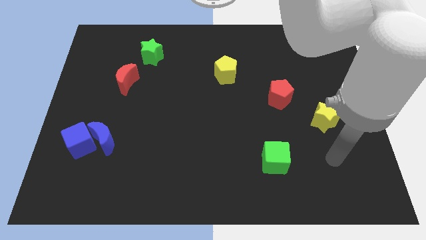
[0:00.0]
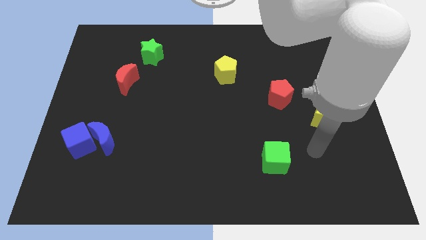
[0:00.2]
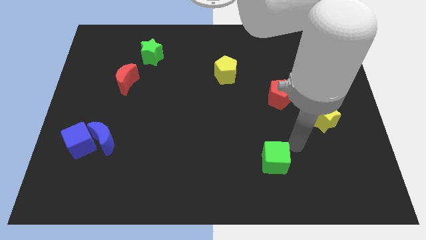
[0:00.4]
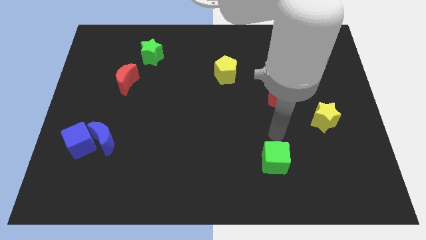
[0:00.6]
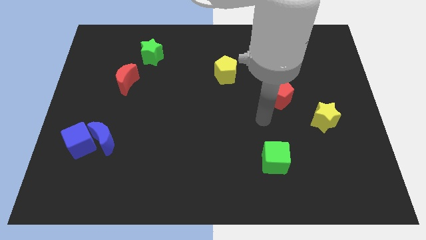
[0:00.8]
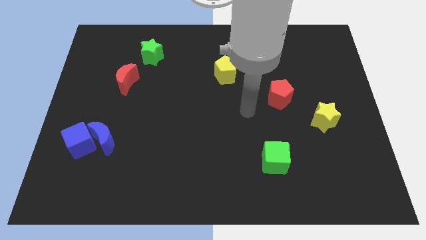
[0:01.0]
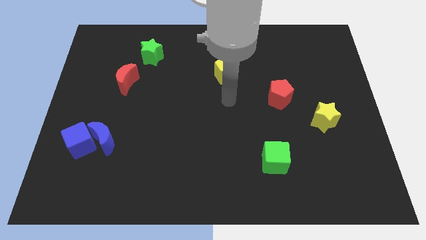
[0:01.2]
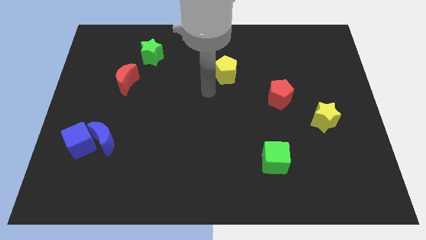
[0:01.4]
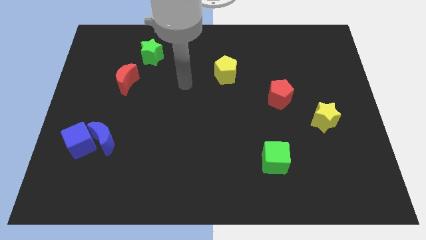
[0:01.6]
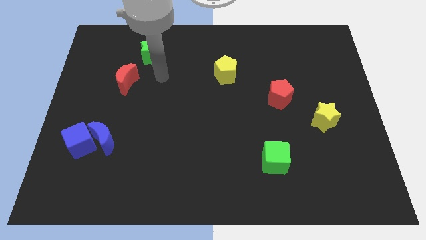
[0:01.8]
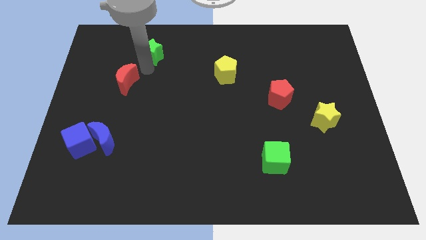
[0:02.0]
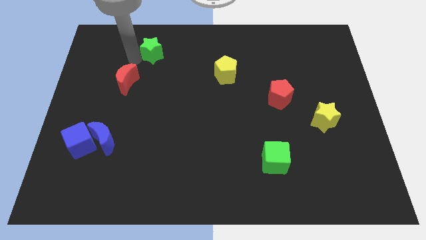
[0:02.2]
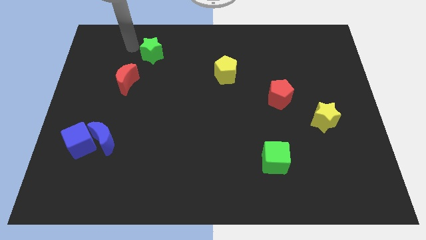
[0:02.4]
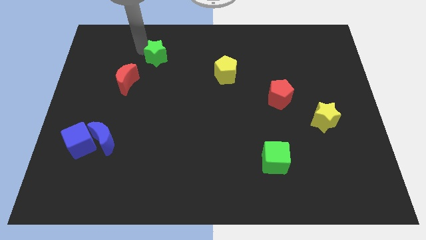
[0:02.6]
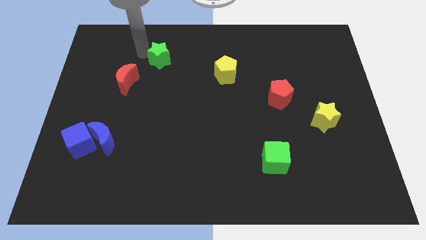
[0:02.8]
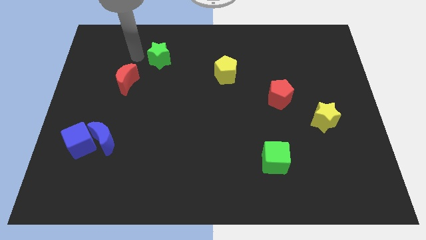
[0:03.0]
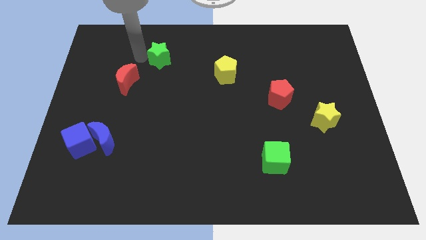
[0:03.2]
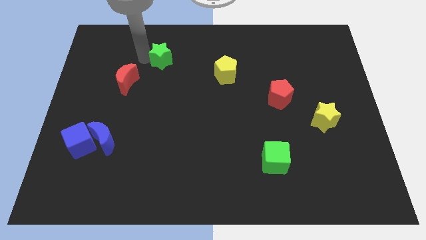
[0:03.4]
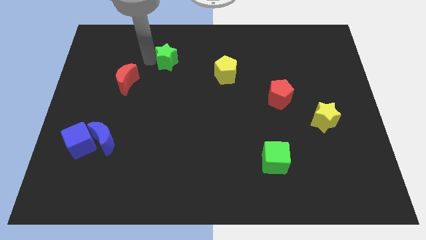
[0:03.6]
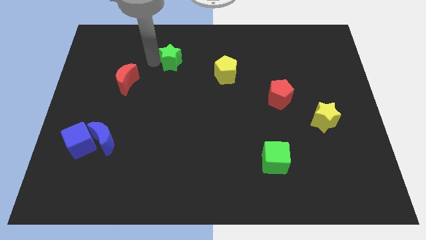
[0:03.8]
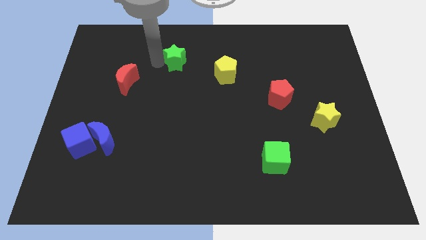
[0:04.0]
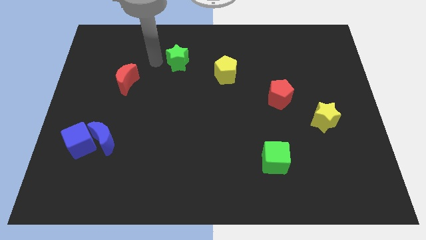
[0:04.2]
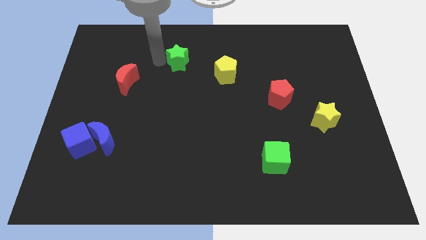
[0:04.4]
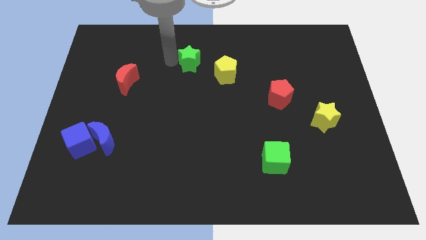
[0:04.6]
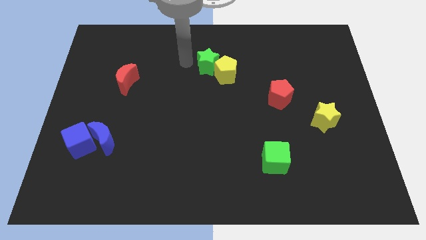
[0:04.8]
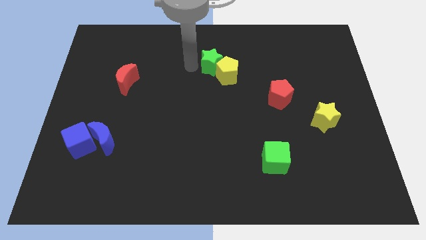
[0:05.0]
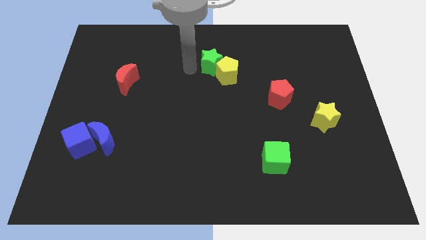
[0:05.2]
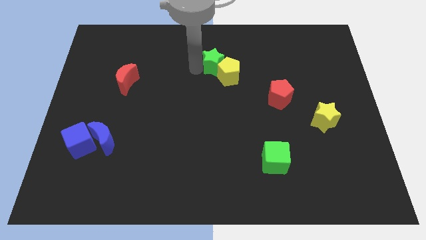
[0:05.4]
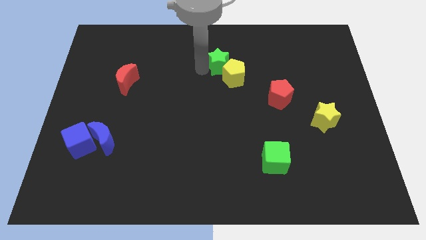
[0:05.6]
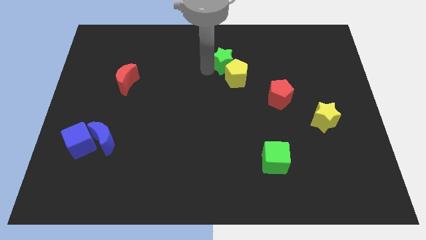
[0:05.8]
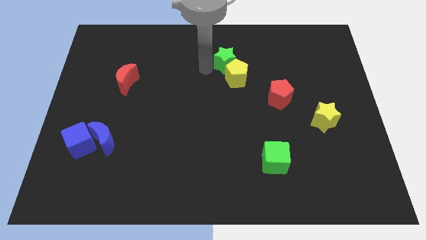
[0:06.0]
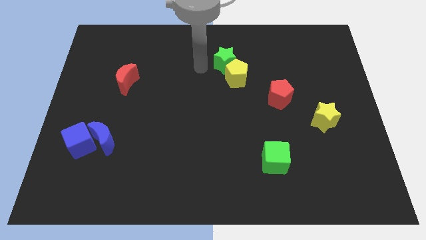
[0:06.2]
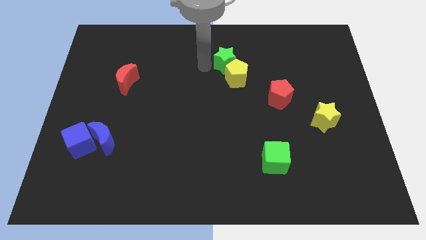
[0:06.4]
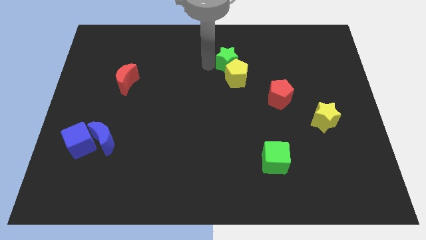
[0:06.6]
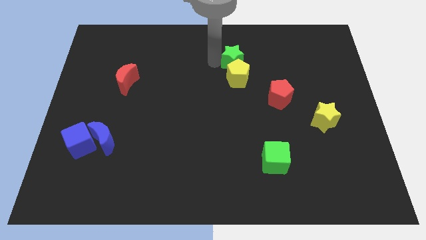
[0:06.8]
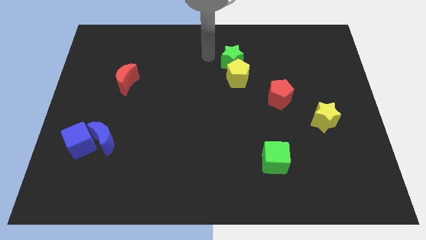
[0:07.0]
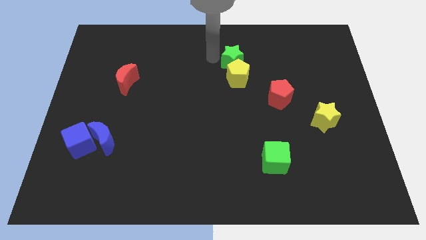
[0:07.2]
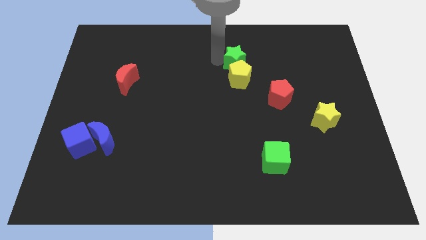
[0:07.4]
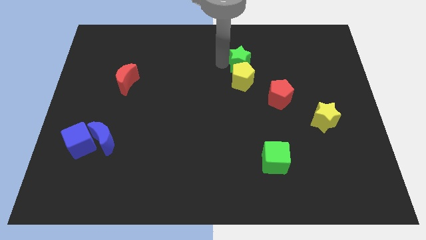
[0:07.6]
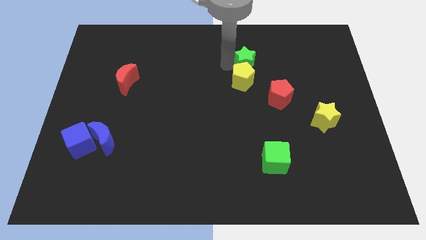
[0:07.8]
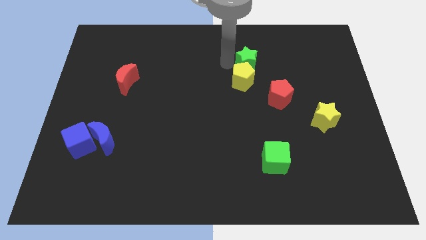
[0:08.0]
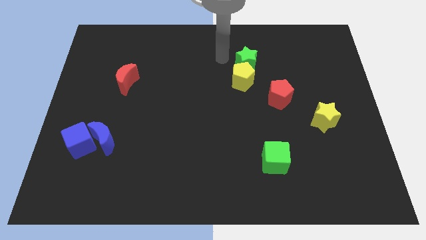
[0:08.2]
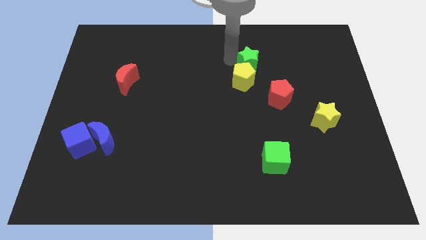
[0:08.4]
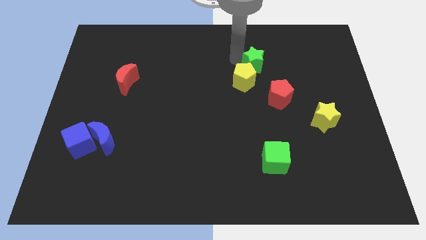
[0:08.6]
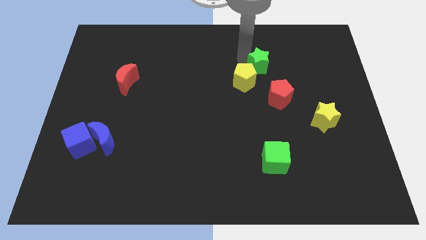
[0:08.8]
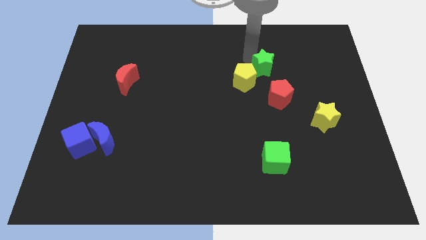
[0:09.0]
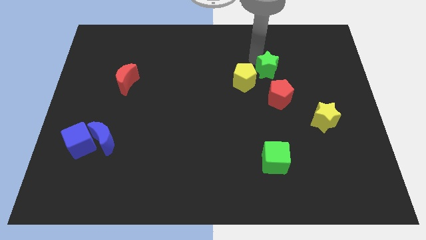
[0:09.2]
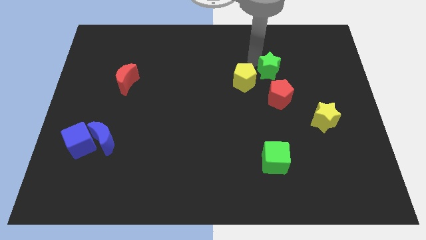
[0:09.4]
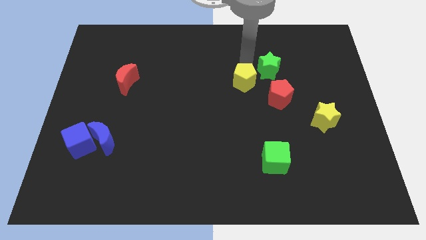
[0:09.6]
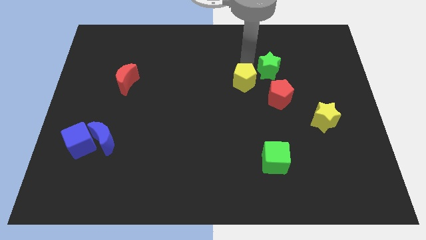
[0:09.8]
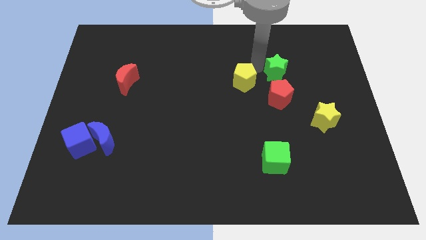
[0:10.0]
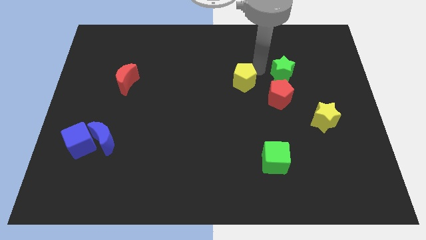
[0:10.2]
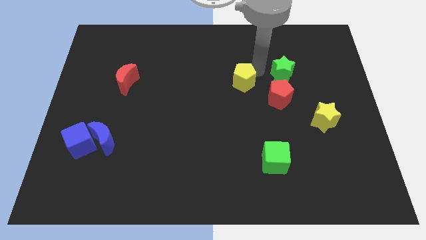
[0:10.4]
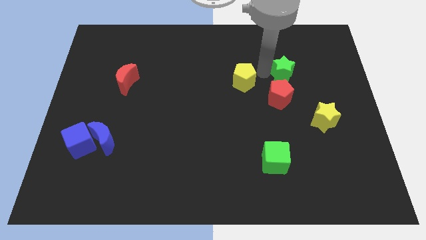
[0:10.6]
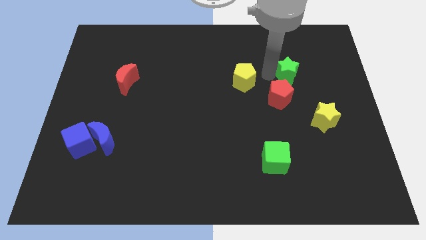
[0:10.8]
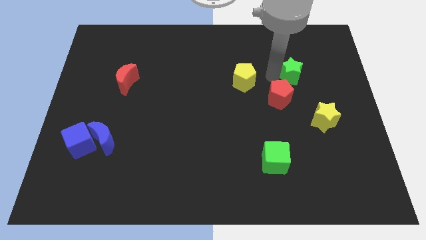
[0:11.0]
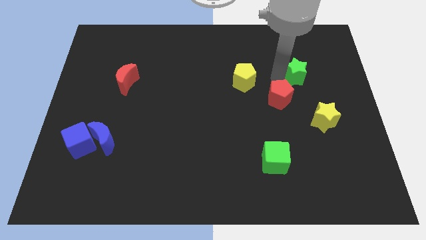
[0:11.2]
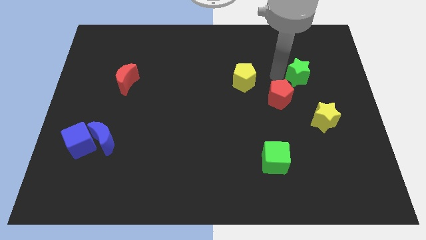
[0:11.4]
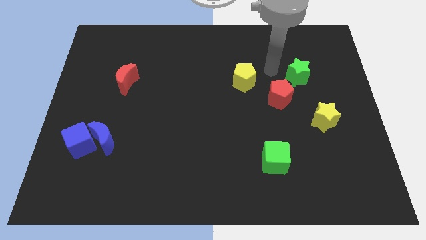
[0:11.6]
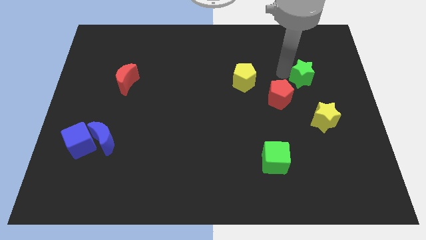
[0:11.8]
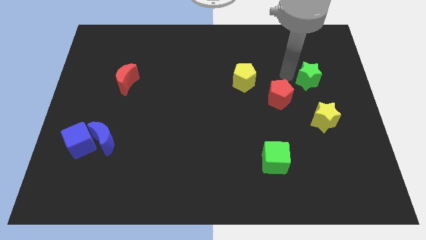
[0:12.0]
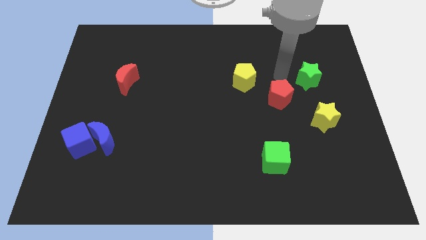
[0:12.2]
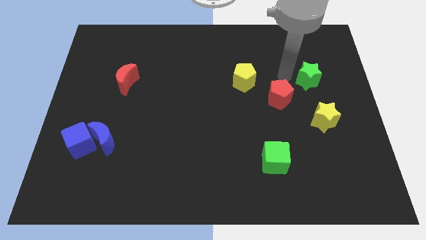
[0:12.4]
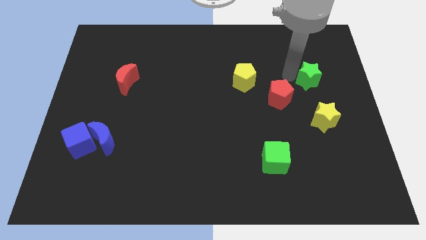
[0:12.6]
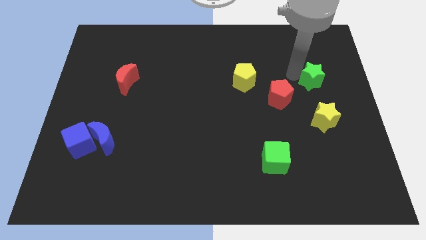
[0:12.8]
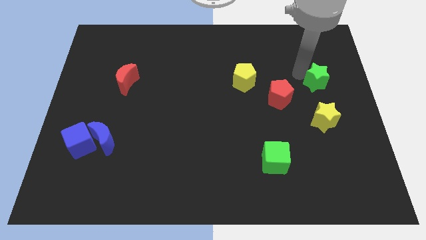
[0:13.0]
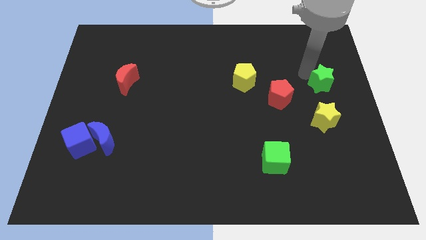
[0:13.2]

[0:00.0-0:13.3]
put the green star to the right side of the board

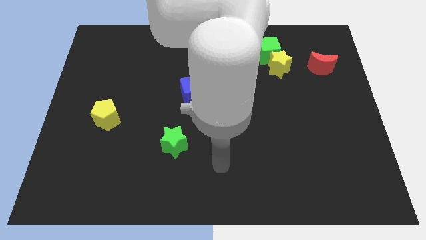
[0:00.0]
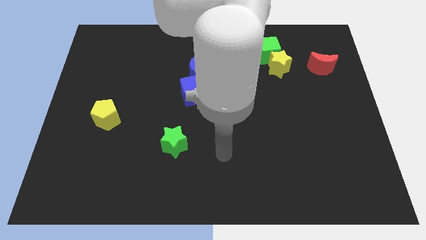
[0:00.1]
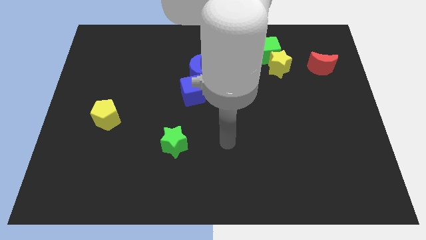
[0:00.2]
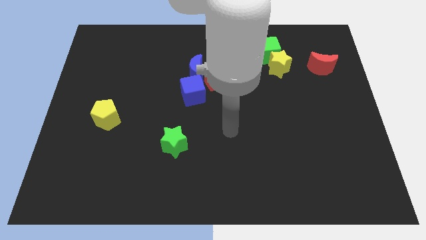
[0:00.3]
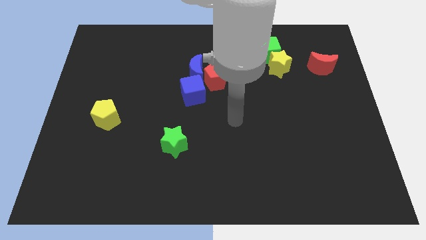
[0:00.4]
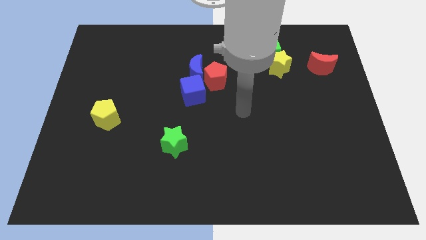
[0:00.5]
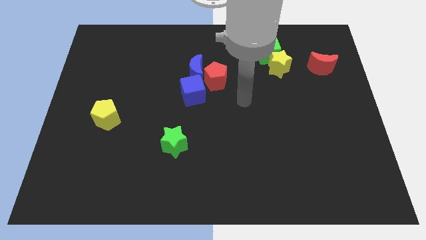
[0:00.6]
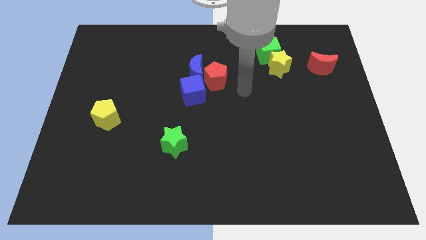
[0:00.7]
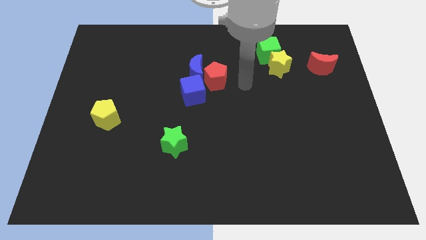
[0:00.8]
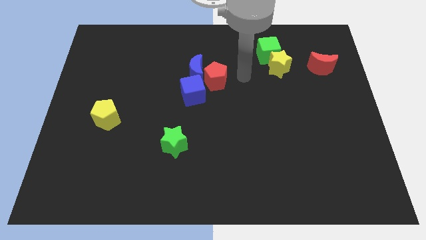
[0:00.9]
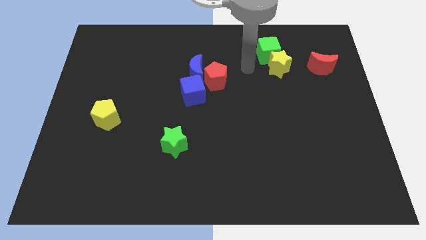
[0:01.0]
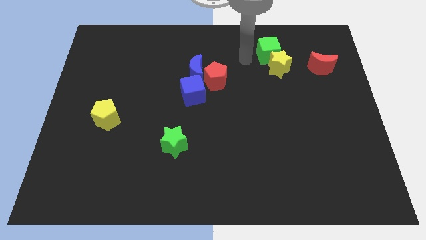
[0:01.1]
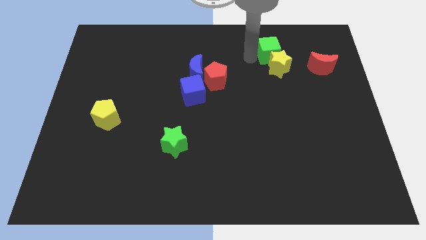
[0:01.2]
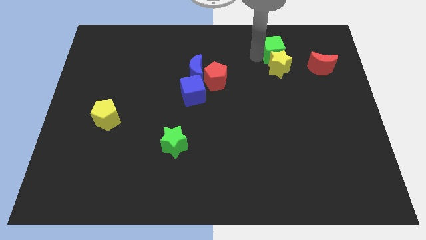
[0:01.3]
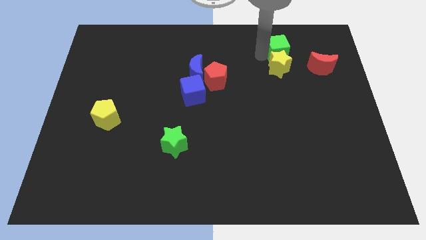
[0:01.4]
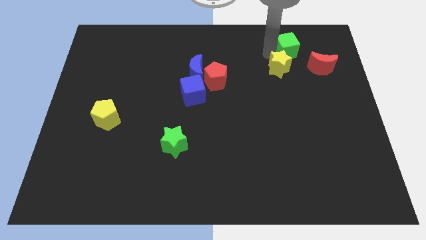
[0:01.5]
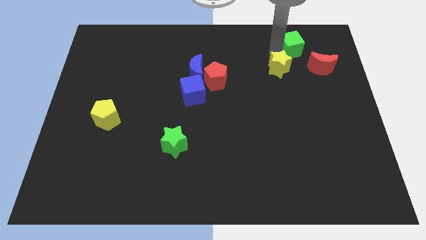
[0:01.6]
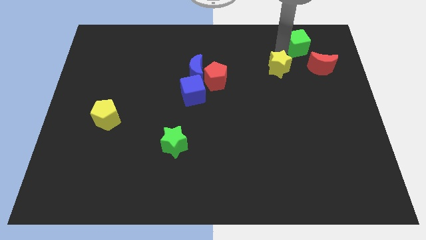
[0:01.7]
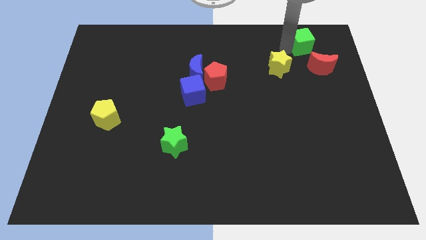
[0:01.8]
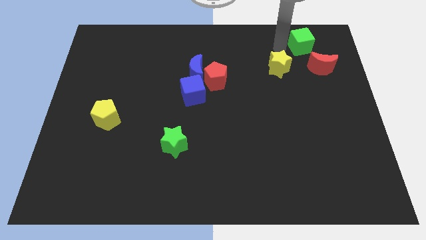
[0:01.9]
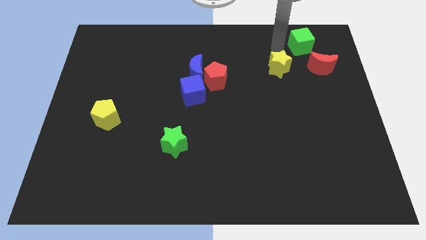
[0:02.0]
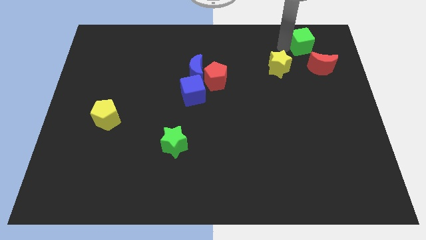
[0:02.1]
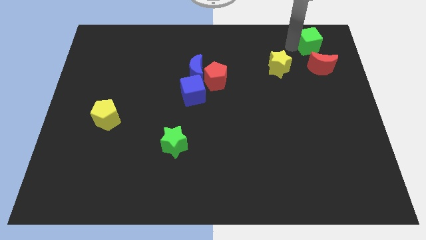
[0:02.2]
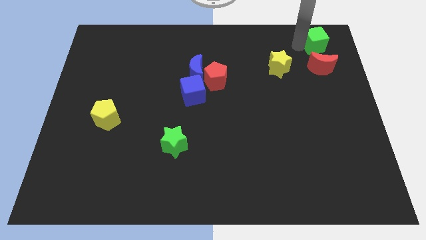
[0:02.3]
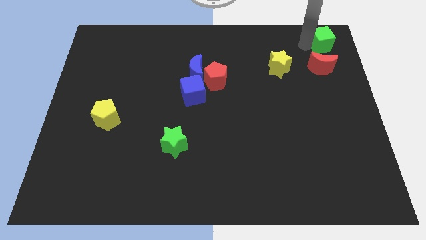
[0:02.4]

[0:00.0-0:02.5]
move the green cube to the top right
